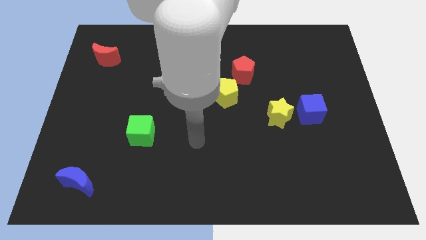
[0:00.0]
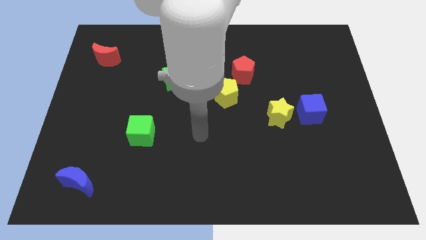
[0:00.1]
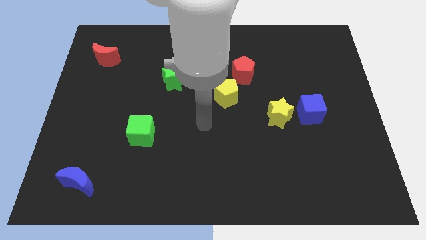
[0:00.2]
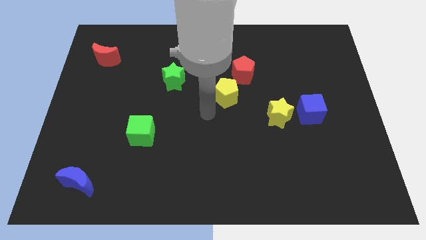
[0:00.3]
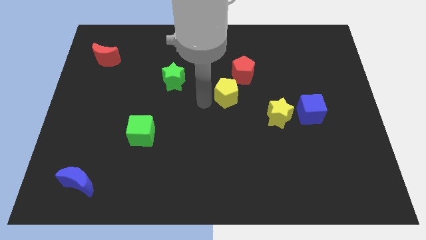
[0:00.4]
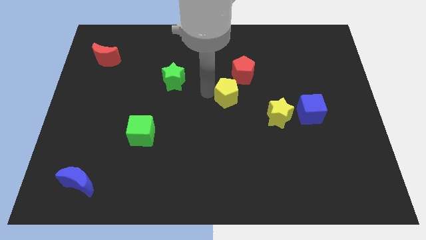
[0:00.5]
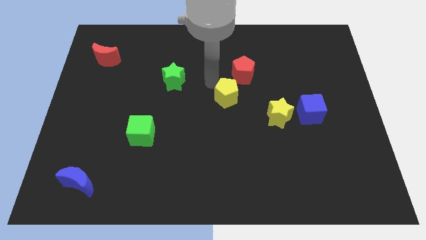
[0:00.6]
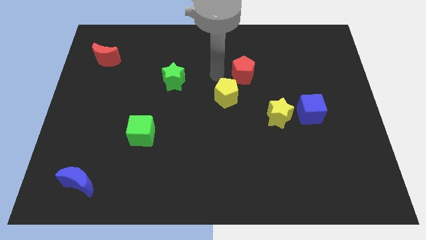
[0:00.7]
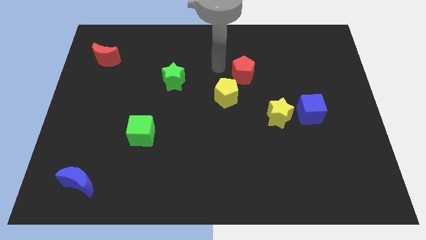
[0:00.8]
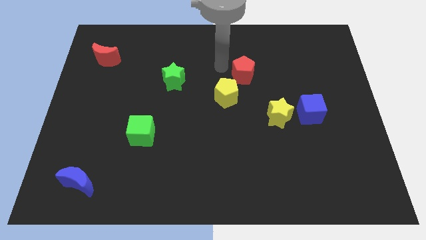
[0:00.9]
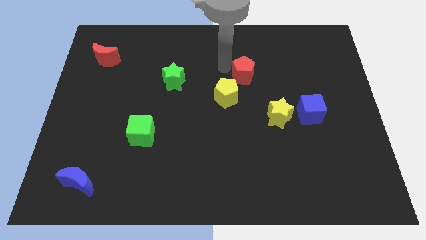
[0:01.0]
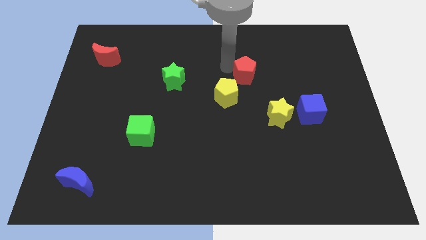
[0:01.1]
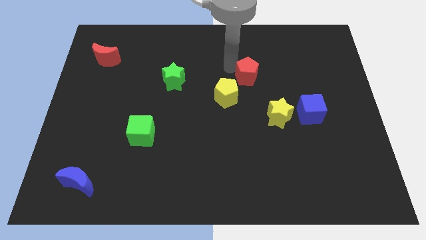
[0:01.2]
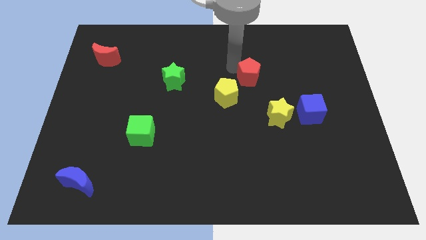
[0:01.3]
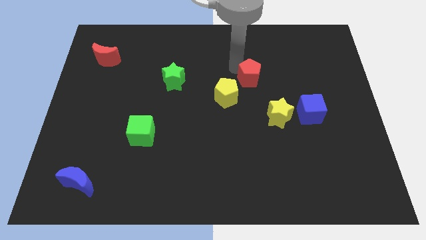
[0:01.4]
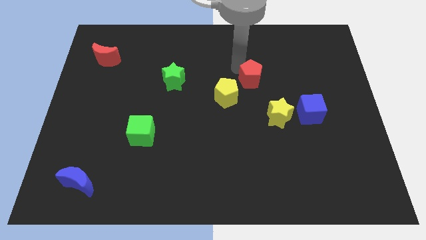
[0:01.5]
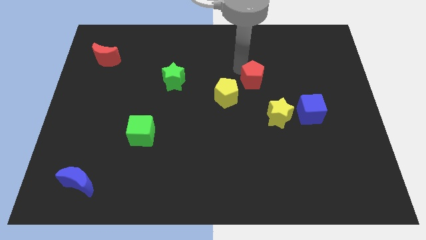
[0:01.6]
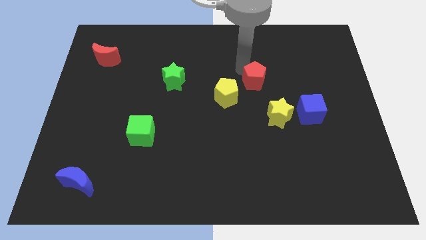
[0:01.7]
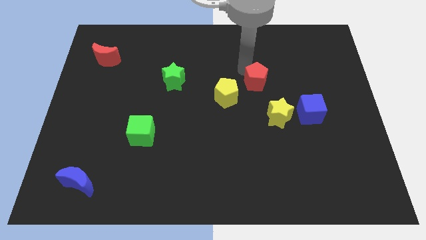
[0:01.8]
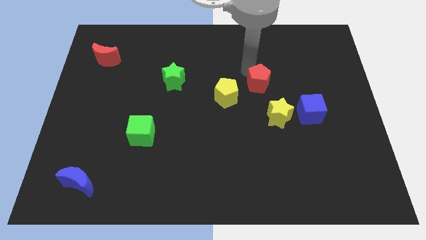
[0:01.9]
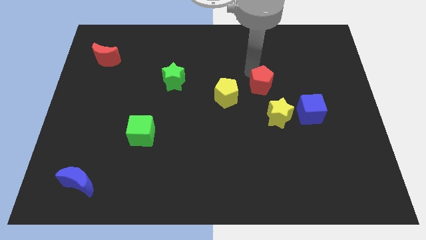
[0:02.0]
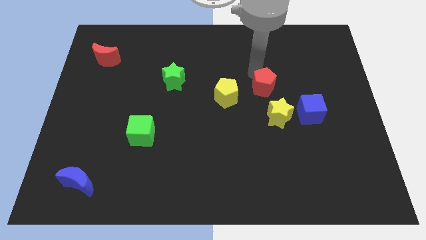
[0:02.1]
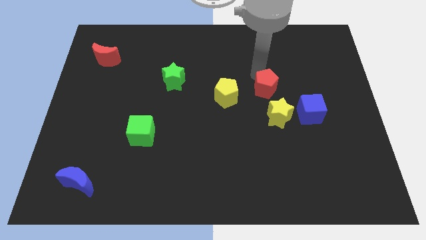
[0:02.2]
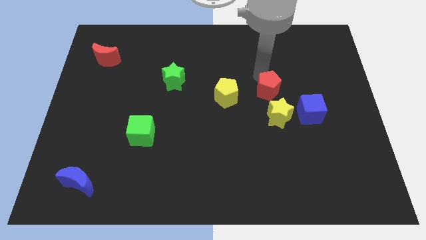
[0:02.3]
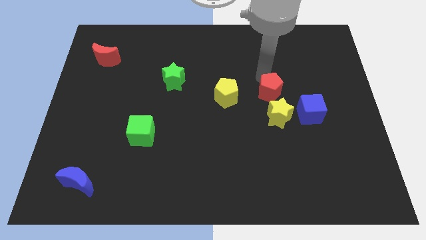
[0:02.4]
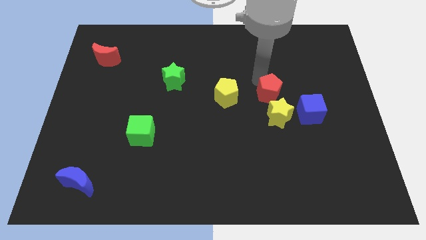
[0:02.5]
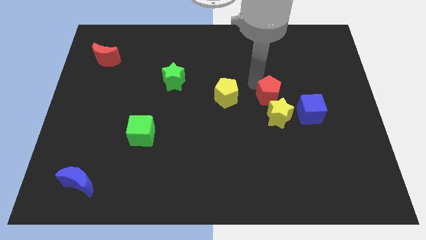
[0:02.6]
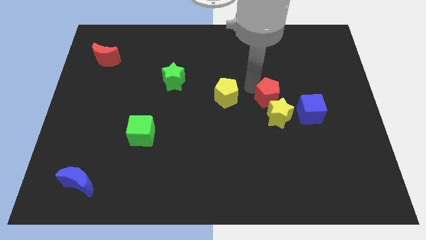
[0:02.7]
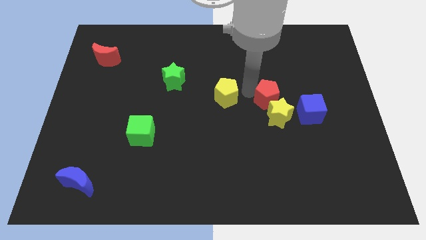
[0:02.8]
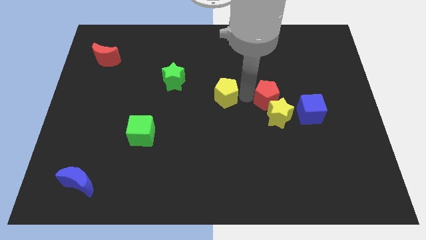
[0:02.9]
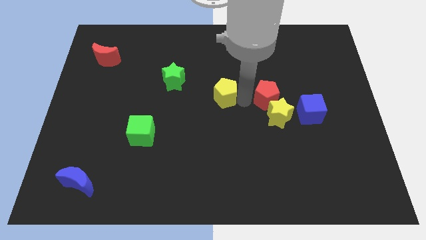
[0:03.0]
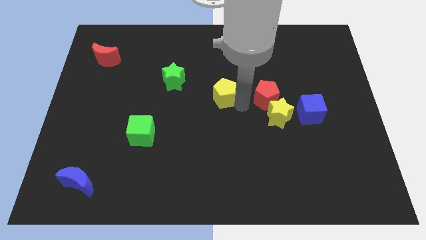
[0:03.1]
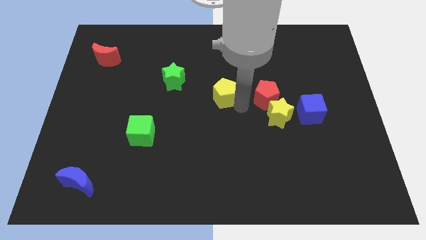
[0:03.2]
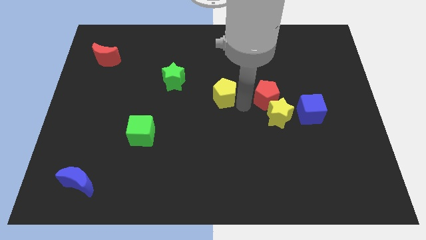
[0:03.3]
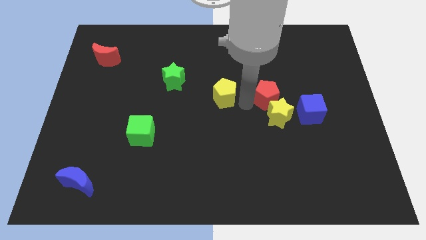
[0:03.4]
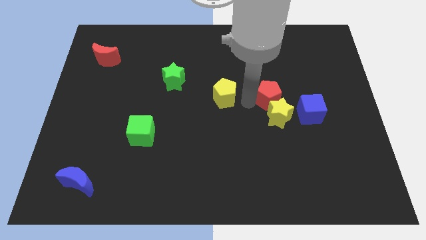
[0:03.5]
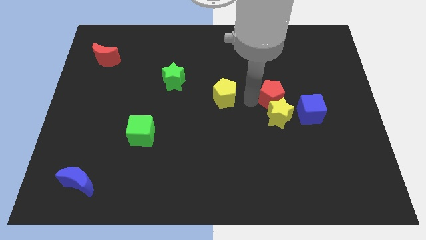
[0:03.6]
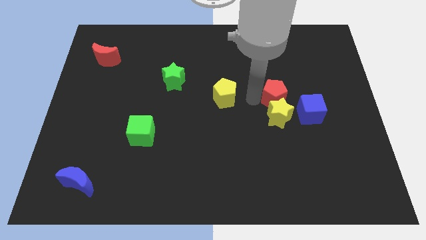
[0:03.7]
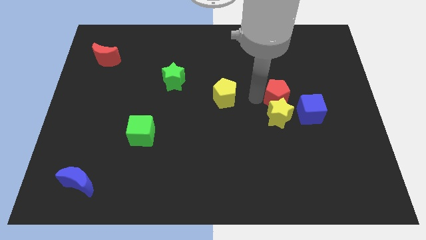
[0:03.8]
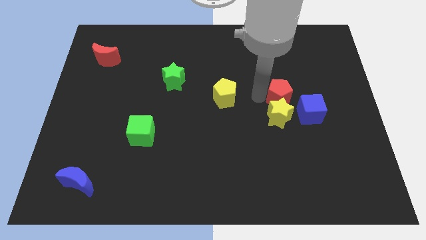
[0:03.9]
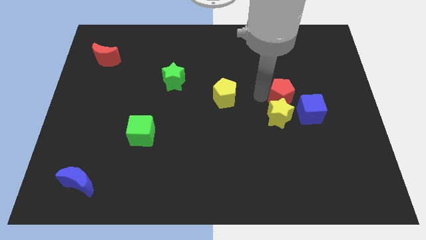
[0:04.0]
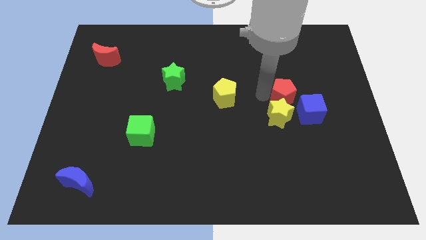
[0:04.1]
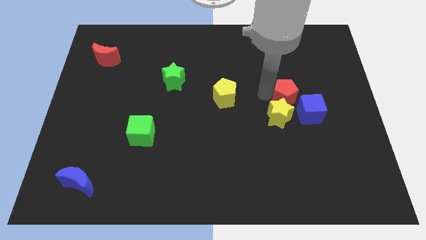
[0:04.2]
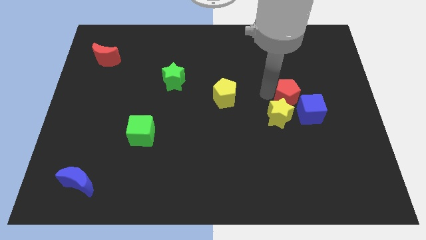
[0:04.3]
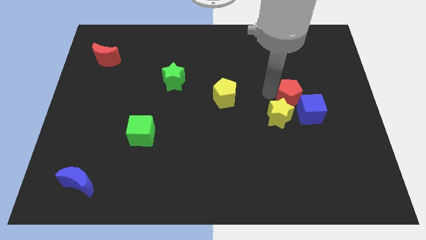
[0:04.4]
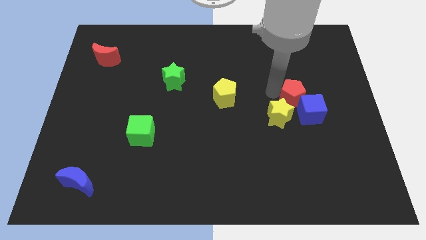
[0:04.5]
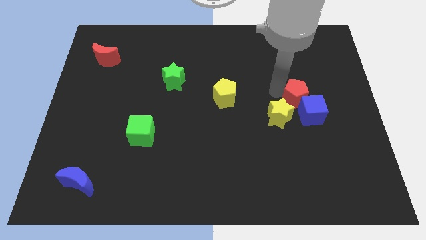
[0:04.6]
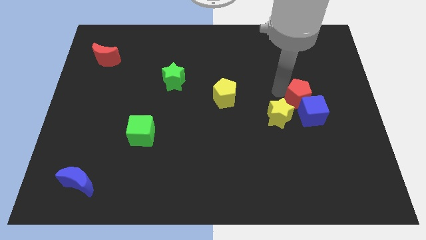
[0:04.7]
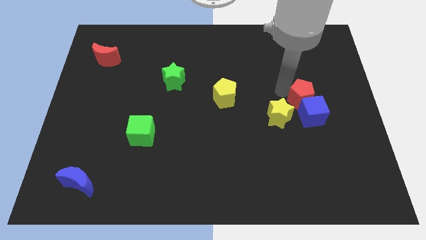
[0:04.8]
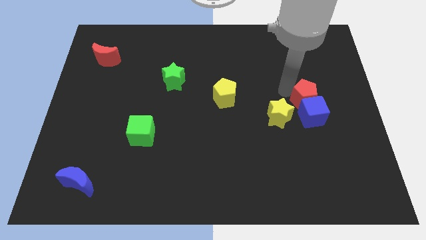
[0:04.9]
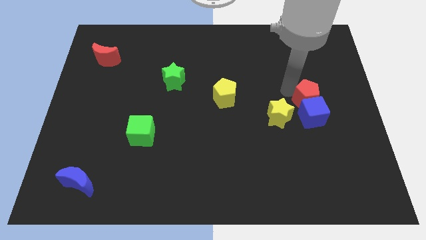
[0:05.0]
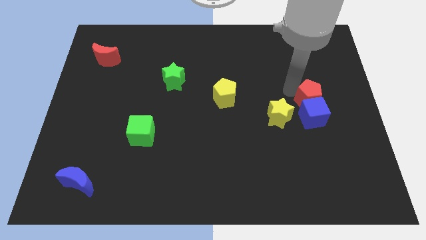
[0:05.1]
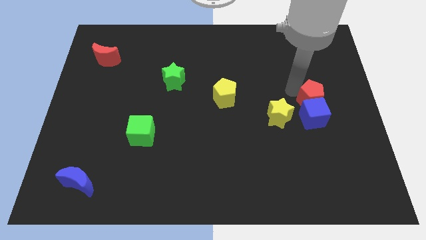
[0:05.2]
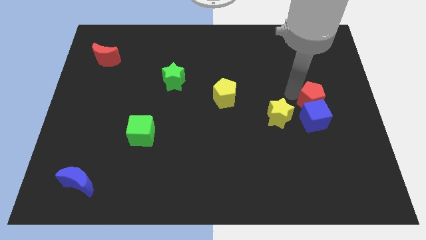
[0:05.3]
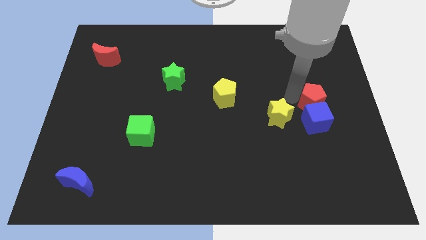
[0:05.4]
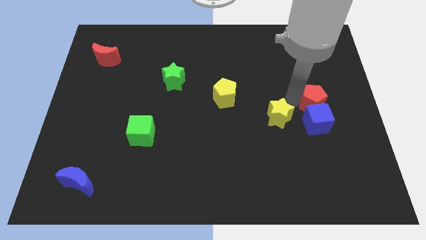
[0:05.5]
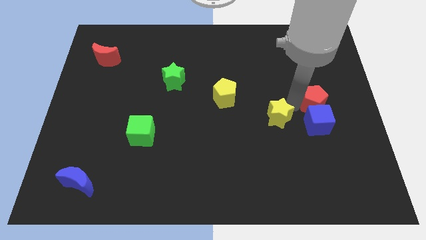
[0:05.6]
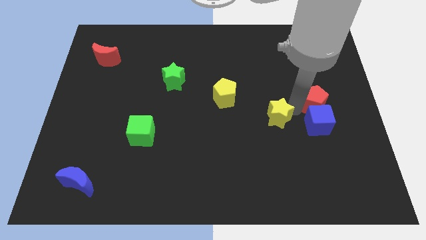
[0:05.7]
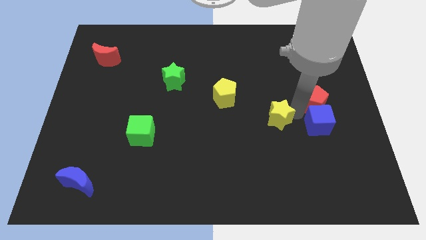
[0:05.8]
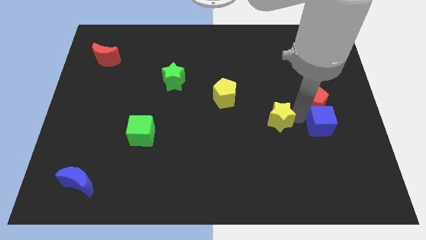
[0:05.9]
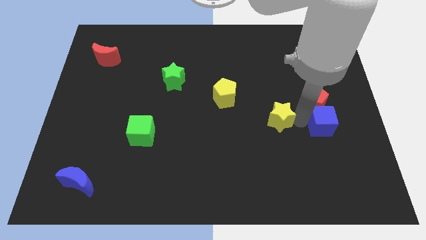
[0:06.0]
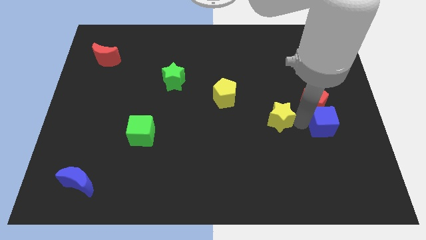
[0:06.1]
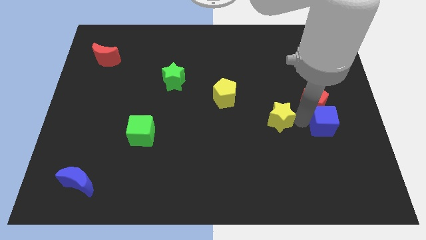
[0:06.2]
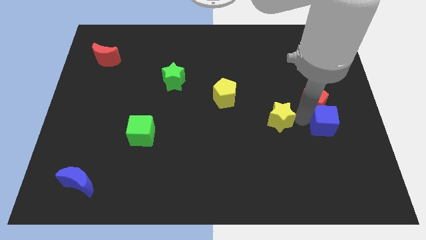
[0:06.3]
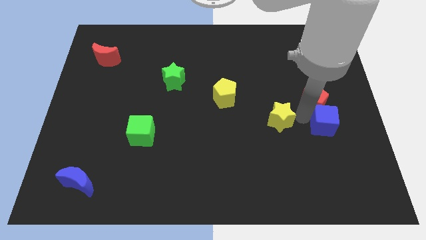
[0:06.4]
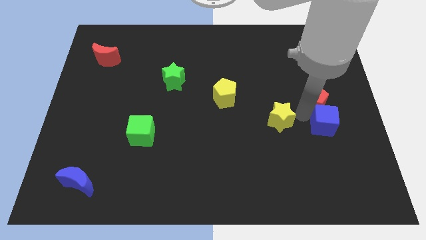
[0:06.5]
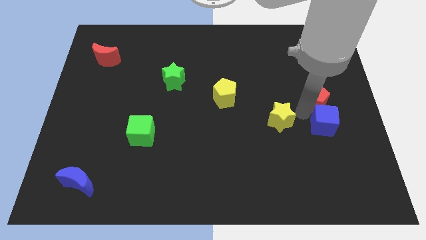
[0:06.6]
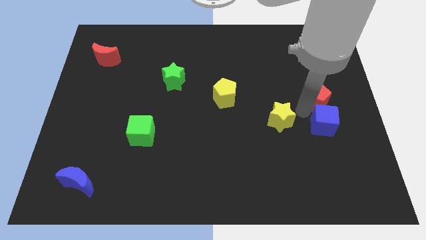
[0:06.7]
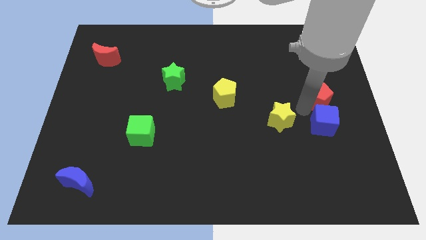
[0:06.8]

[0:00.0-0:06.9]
move the red pentagon to the center right
